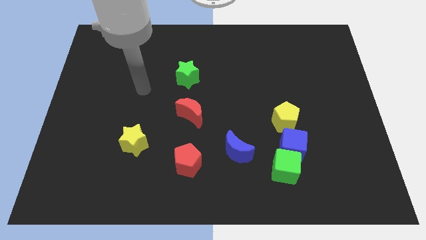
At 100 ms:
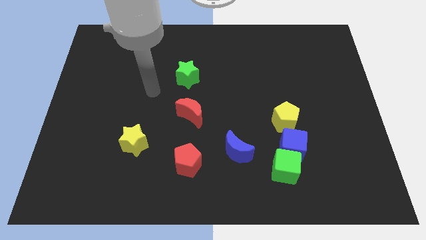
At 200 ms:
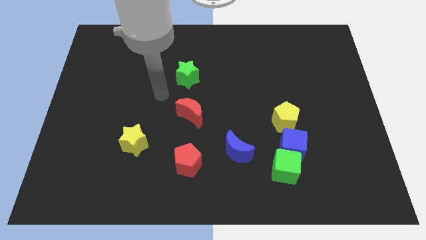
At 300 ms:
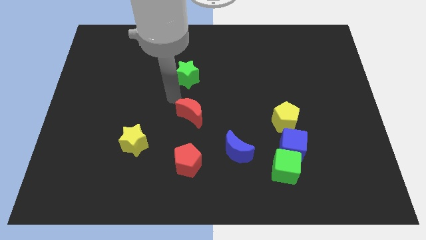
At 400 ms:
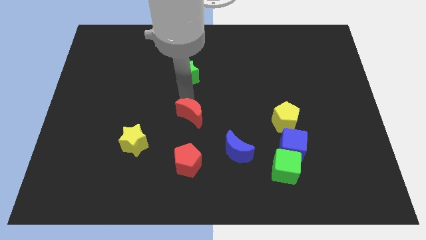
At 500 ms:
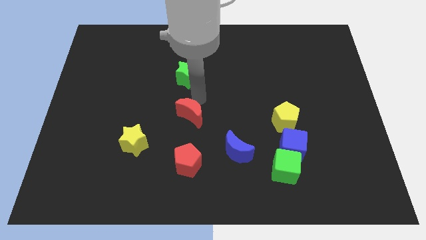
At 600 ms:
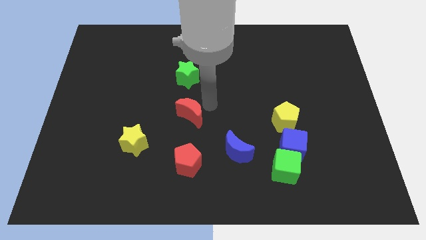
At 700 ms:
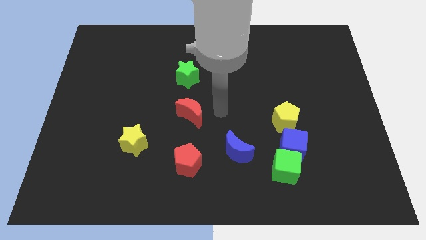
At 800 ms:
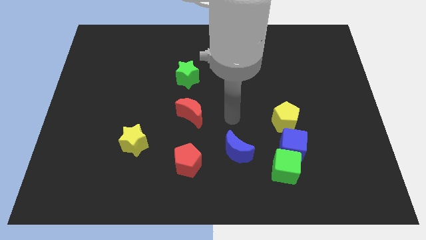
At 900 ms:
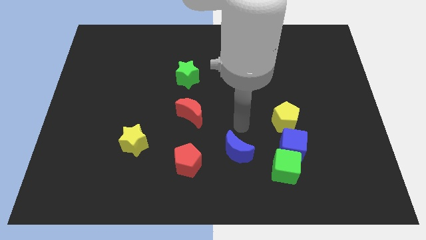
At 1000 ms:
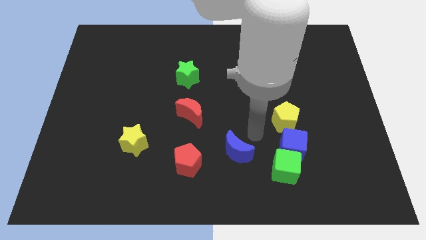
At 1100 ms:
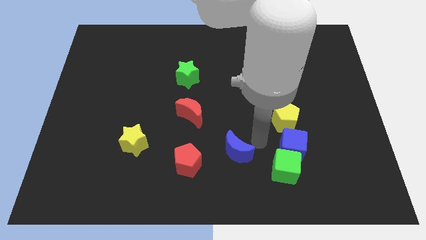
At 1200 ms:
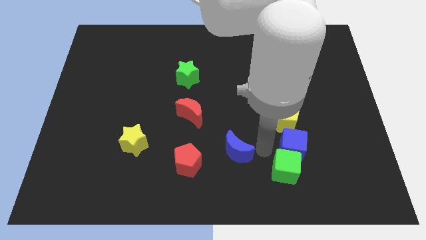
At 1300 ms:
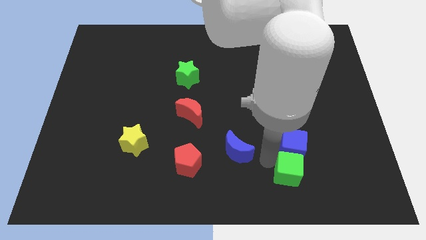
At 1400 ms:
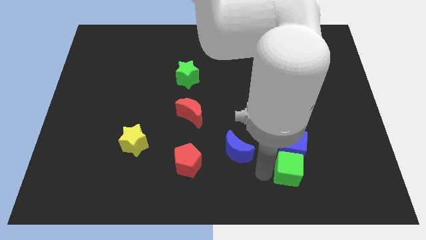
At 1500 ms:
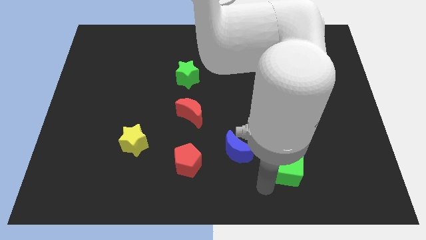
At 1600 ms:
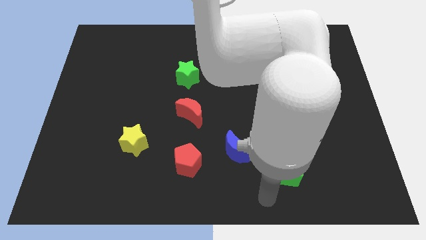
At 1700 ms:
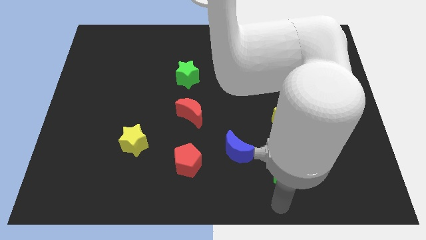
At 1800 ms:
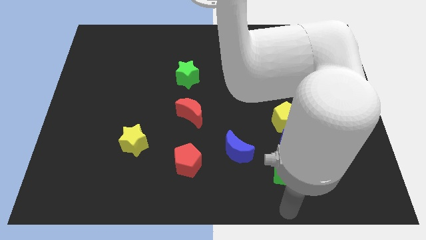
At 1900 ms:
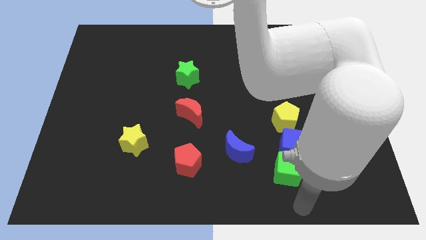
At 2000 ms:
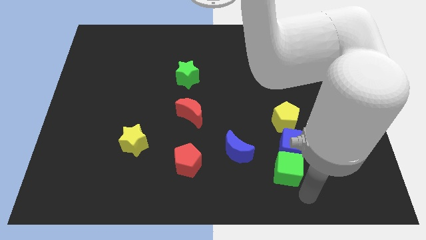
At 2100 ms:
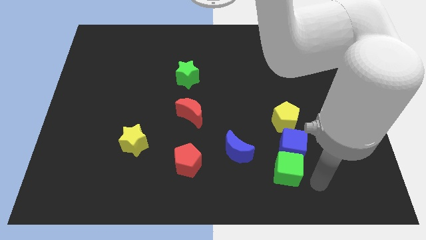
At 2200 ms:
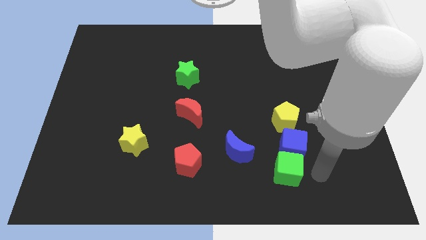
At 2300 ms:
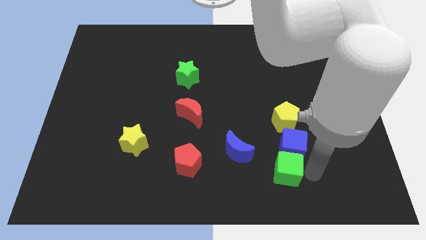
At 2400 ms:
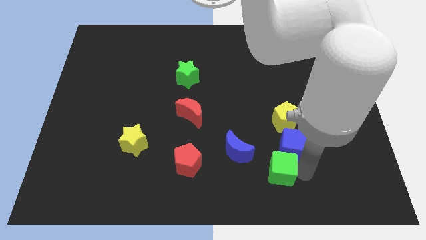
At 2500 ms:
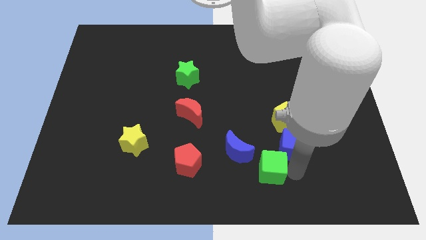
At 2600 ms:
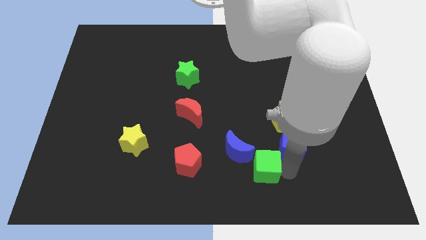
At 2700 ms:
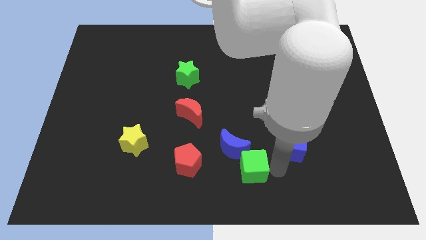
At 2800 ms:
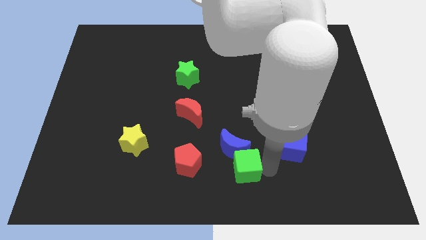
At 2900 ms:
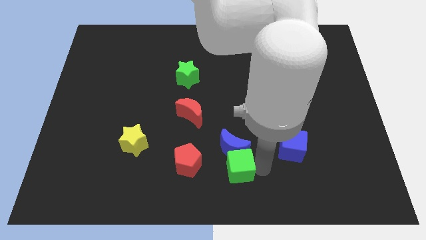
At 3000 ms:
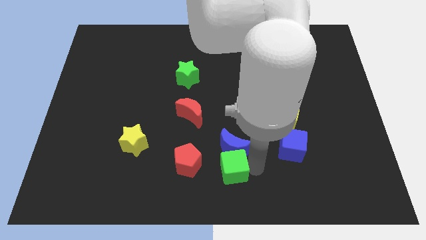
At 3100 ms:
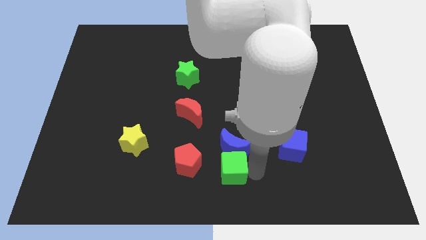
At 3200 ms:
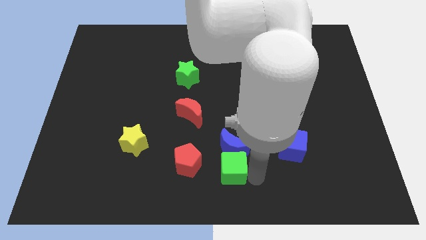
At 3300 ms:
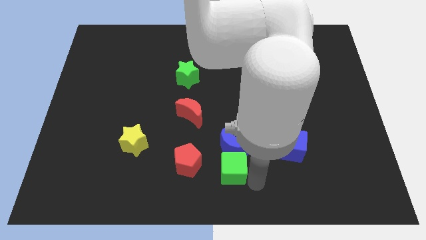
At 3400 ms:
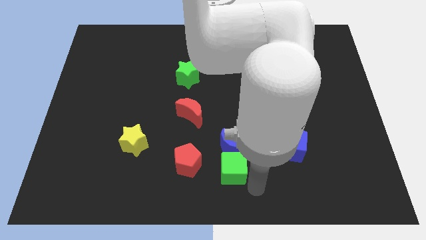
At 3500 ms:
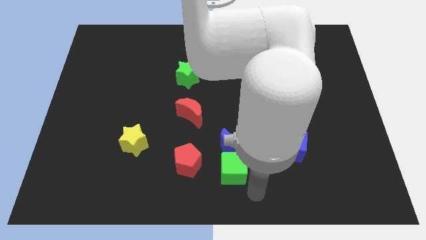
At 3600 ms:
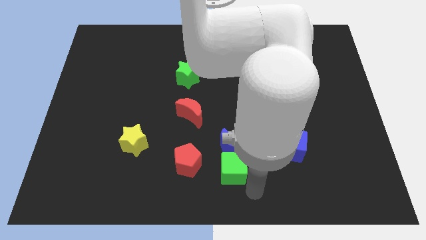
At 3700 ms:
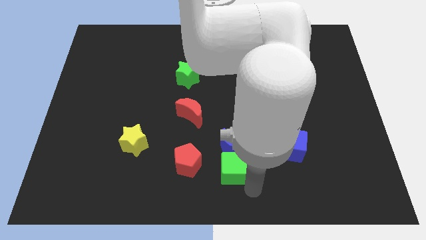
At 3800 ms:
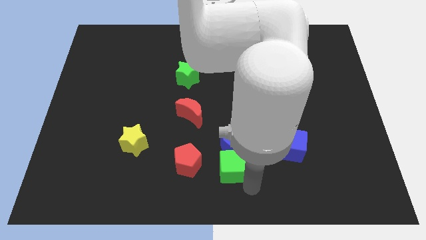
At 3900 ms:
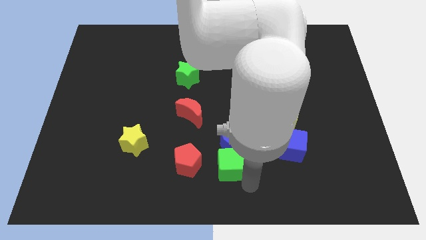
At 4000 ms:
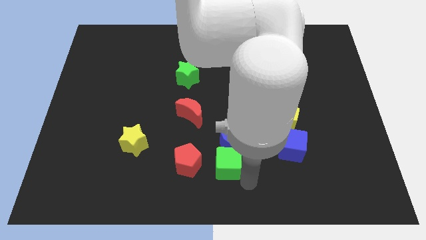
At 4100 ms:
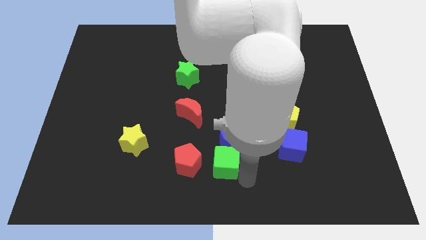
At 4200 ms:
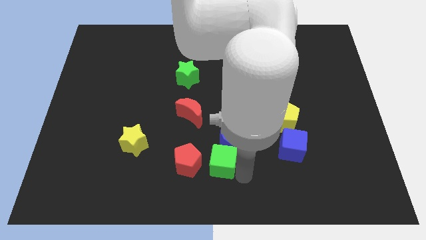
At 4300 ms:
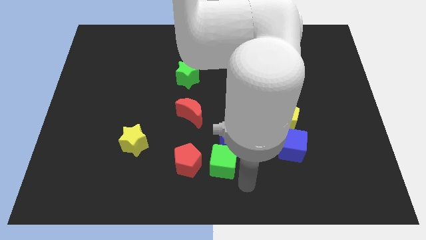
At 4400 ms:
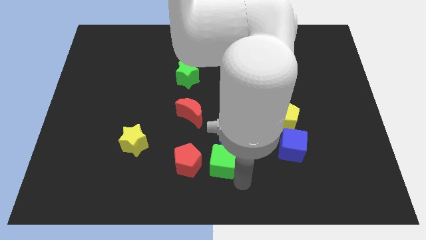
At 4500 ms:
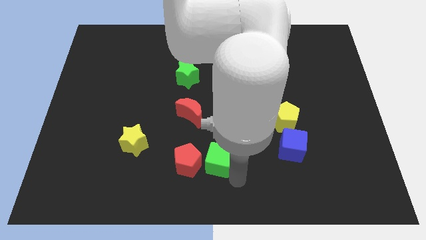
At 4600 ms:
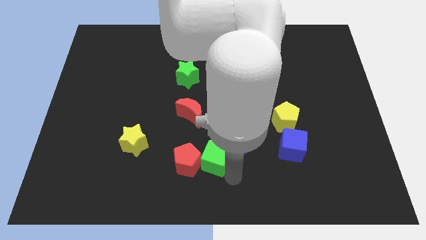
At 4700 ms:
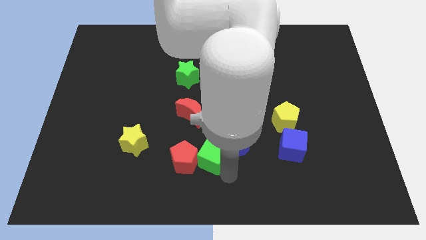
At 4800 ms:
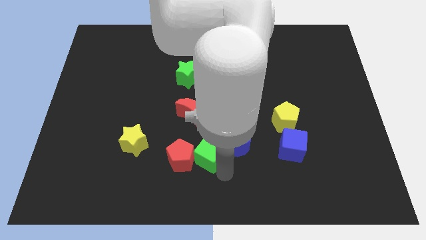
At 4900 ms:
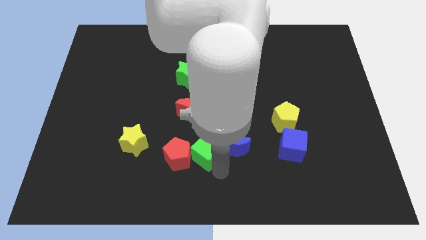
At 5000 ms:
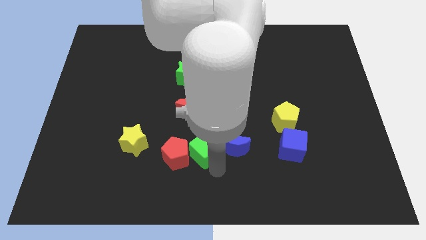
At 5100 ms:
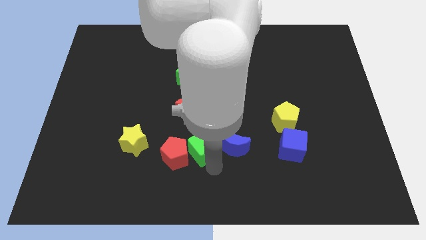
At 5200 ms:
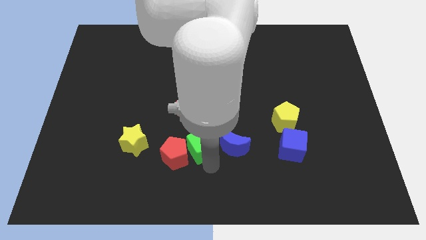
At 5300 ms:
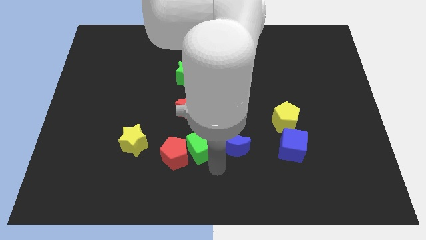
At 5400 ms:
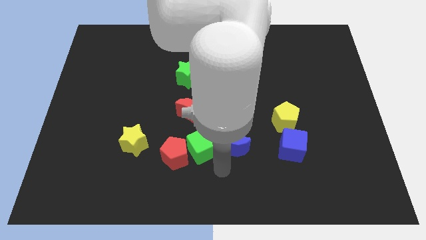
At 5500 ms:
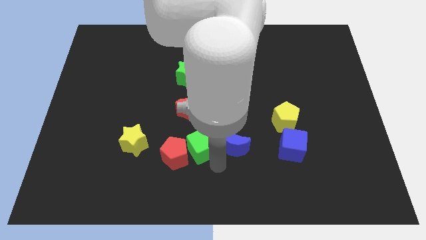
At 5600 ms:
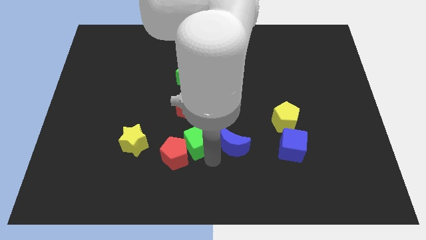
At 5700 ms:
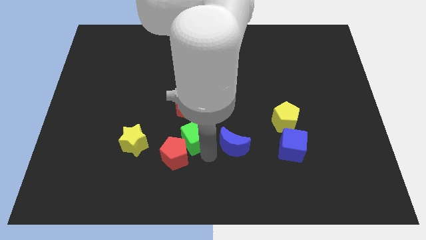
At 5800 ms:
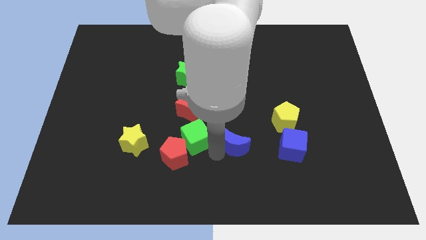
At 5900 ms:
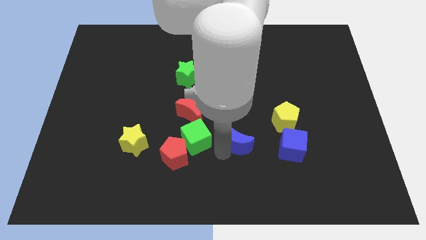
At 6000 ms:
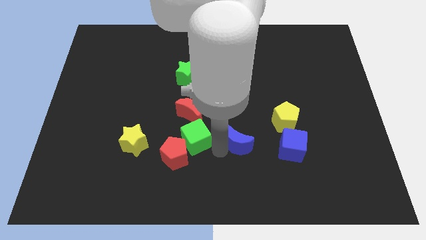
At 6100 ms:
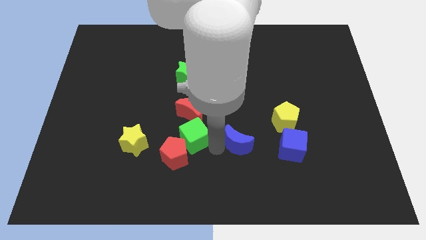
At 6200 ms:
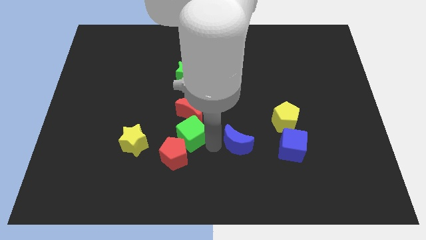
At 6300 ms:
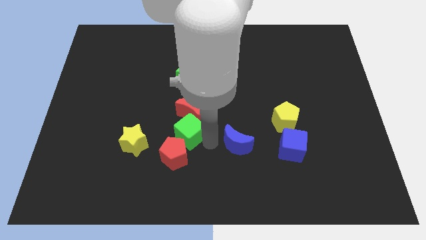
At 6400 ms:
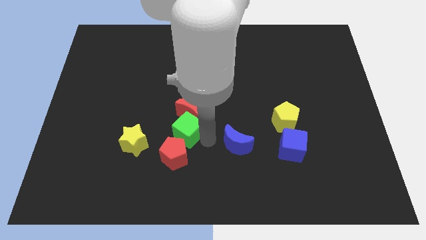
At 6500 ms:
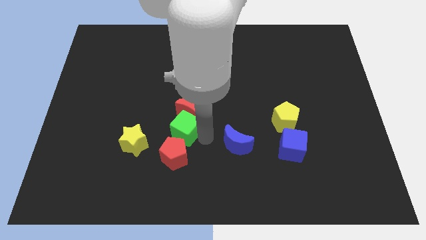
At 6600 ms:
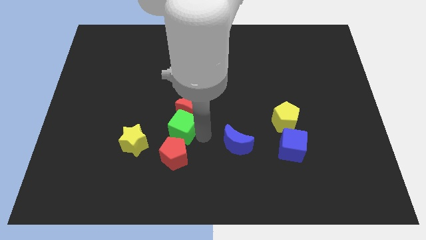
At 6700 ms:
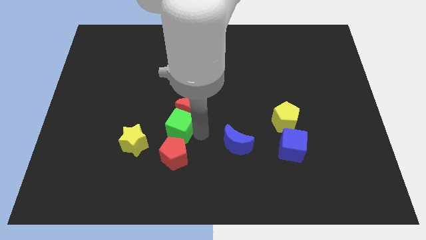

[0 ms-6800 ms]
move the green cube diagonally up and to the right of the yellow star
